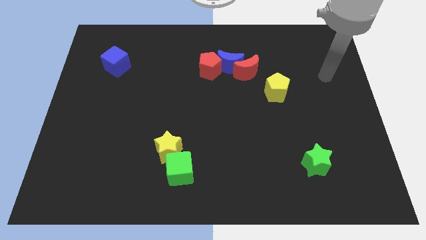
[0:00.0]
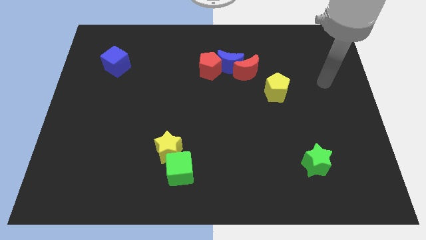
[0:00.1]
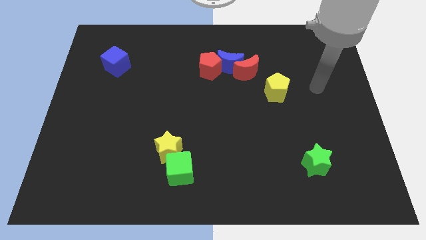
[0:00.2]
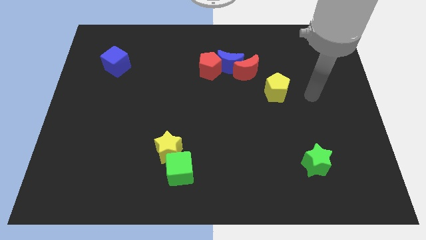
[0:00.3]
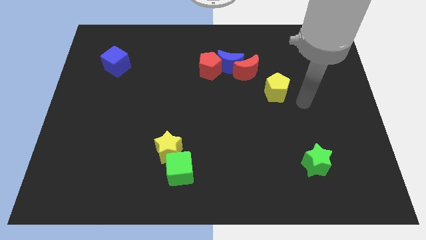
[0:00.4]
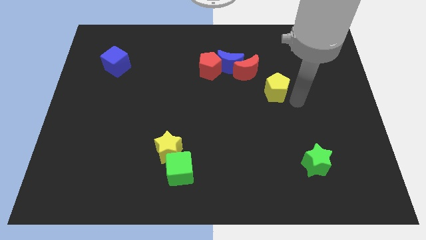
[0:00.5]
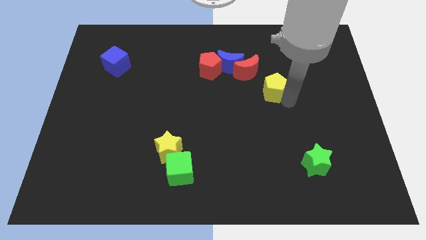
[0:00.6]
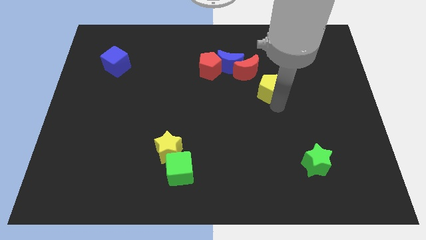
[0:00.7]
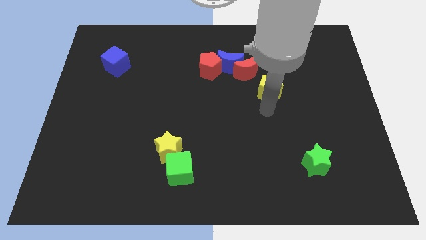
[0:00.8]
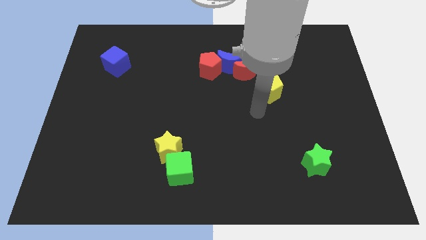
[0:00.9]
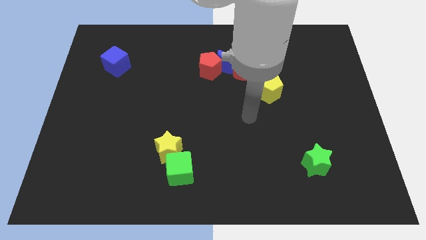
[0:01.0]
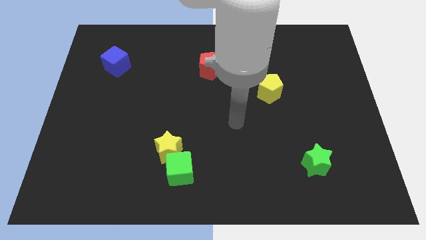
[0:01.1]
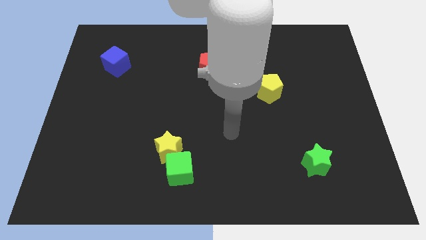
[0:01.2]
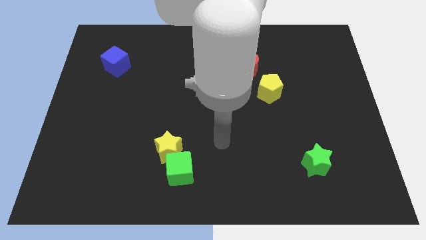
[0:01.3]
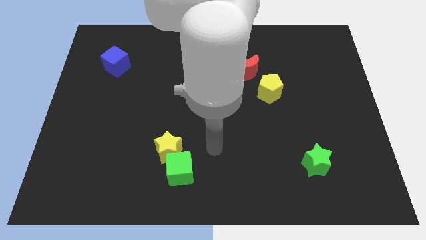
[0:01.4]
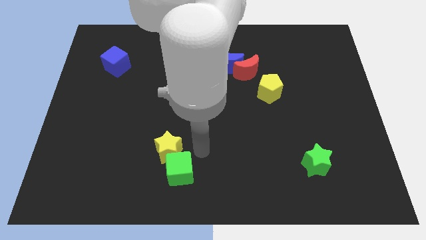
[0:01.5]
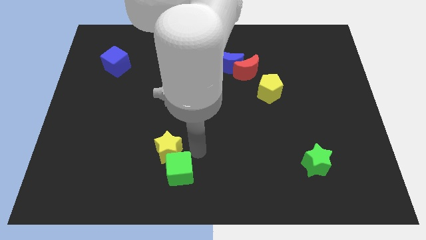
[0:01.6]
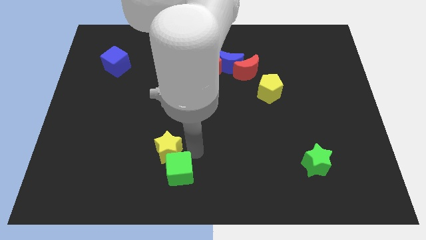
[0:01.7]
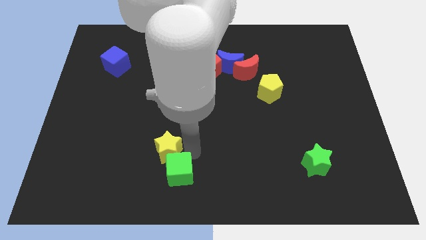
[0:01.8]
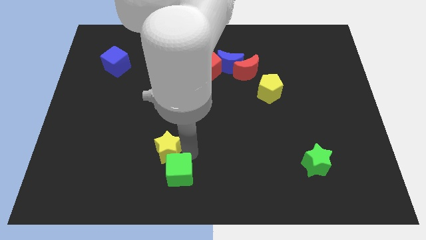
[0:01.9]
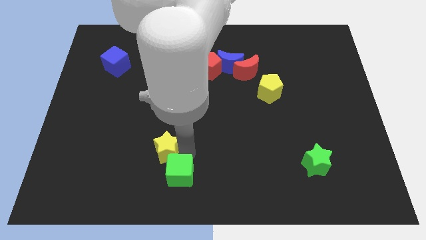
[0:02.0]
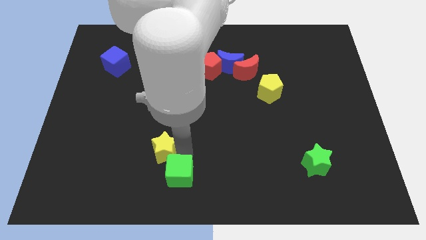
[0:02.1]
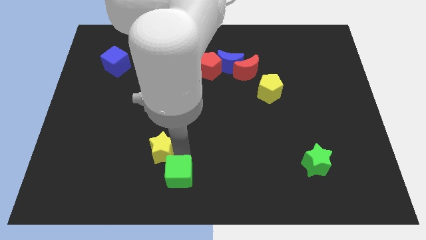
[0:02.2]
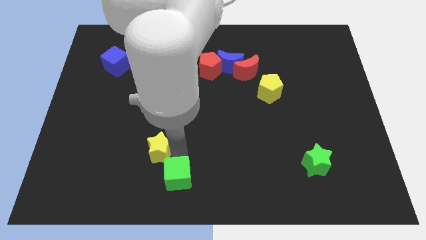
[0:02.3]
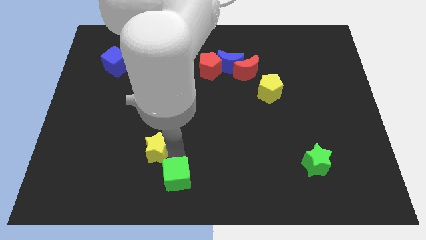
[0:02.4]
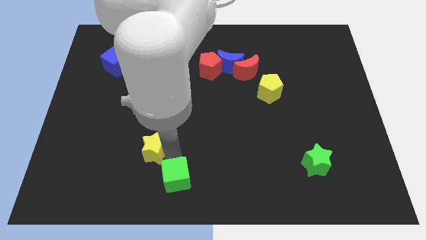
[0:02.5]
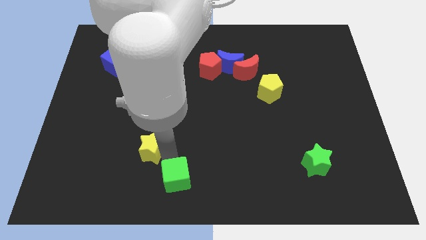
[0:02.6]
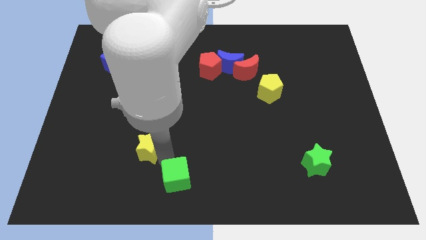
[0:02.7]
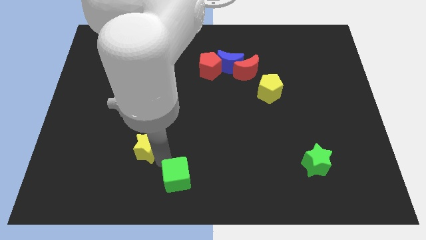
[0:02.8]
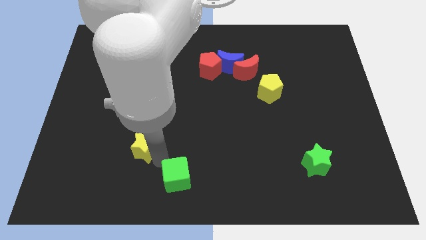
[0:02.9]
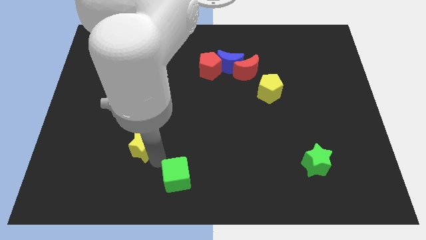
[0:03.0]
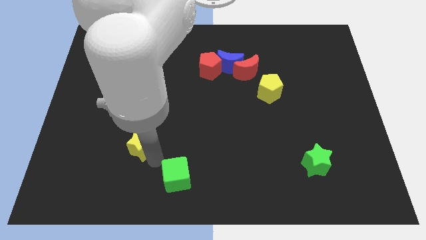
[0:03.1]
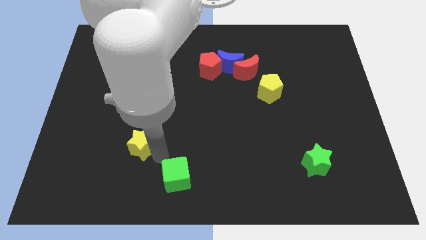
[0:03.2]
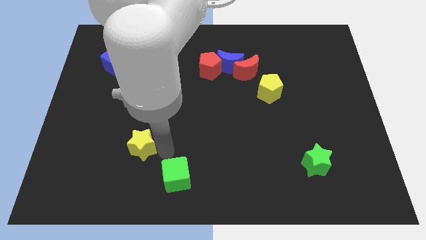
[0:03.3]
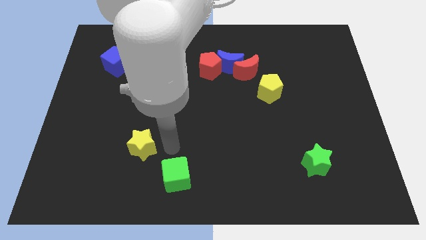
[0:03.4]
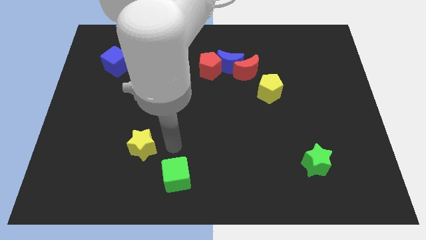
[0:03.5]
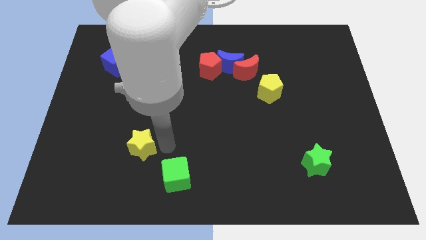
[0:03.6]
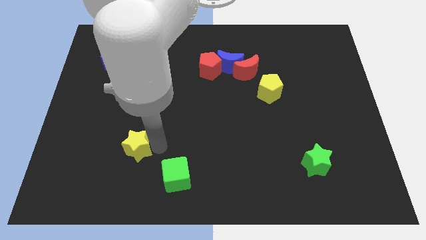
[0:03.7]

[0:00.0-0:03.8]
slightly push the yellow star left

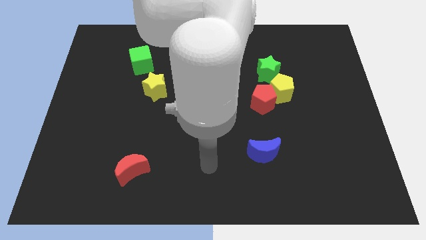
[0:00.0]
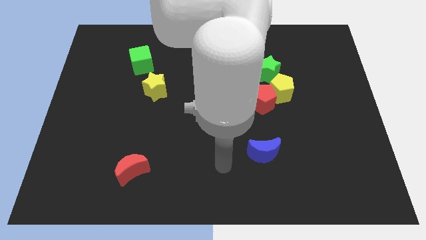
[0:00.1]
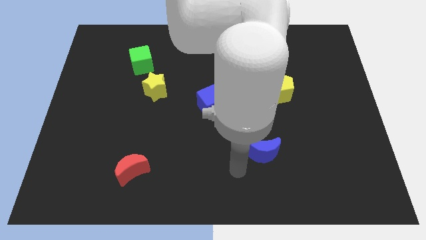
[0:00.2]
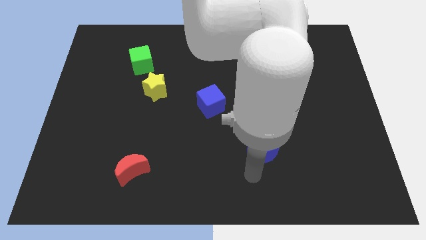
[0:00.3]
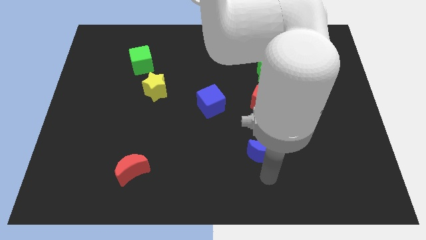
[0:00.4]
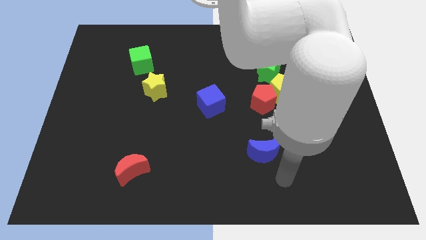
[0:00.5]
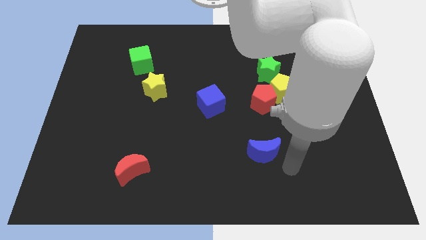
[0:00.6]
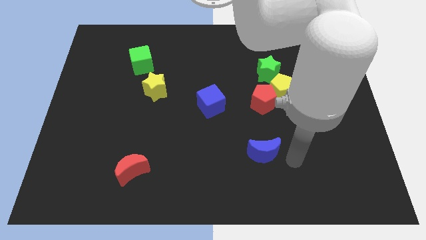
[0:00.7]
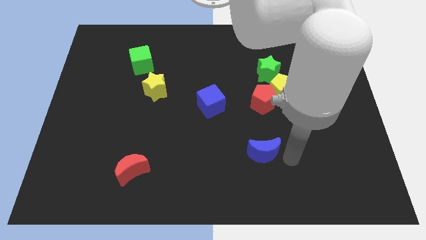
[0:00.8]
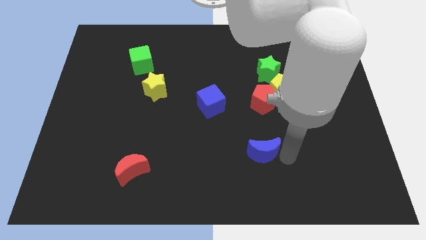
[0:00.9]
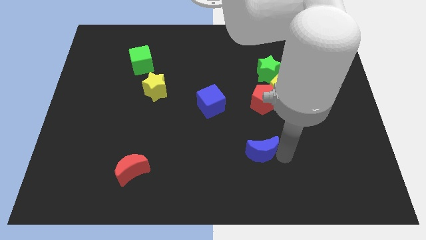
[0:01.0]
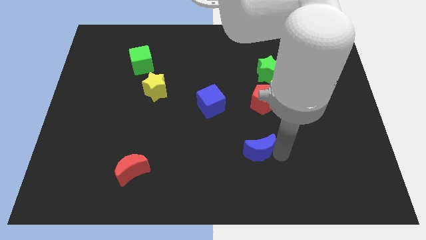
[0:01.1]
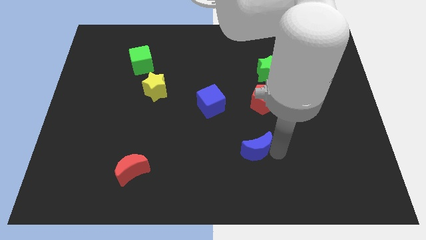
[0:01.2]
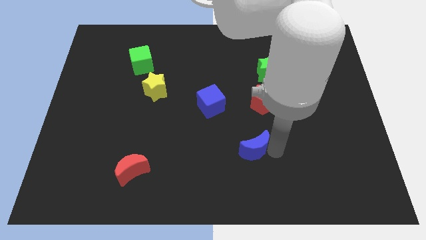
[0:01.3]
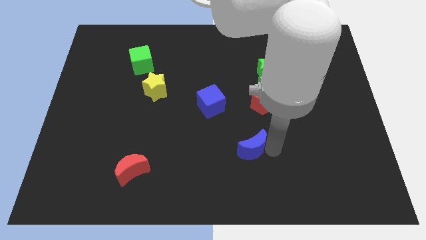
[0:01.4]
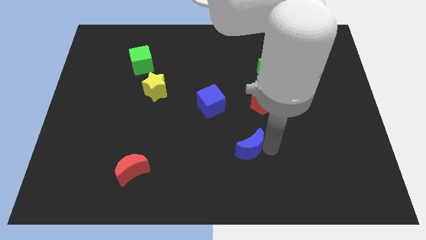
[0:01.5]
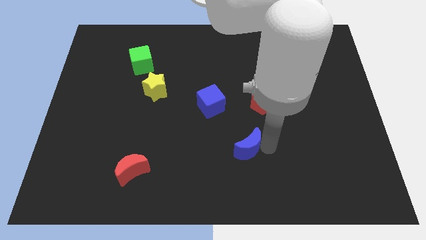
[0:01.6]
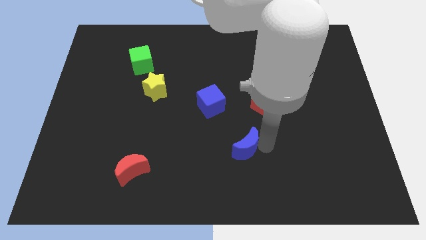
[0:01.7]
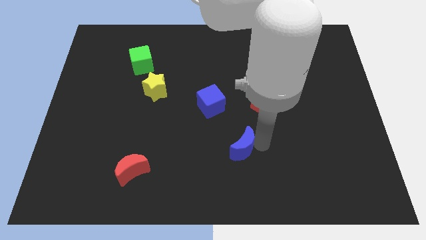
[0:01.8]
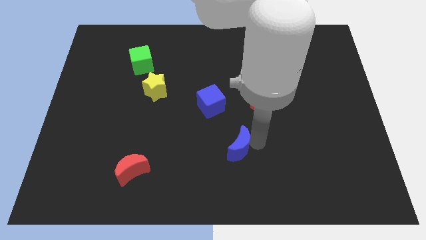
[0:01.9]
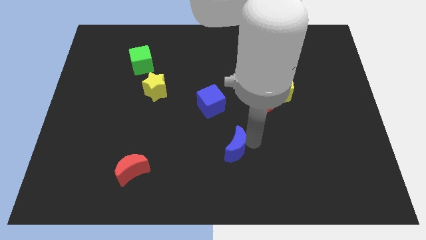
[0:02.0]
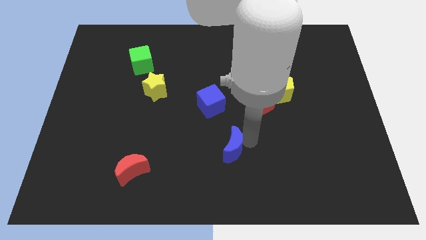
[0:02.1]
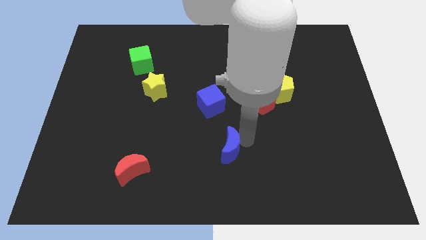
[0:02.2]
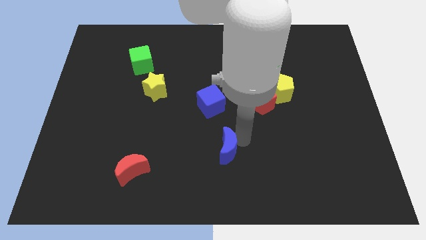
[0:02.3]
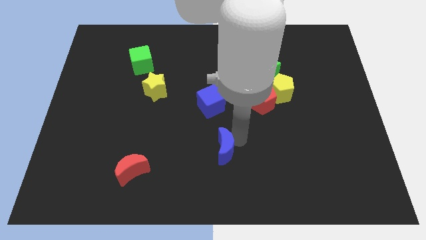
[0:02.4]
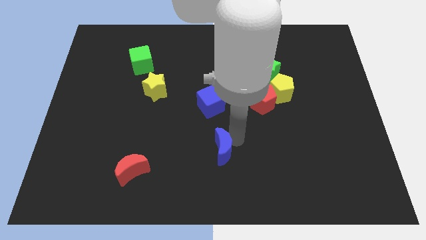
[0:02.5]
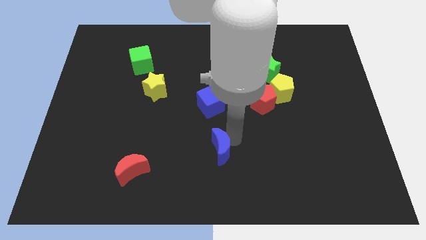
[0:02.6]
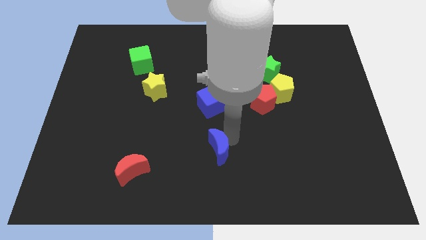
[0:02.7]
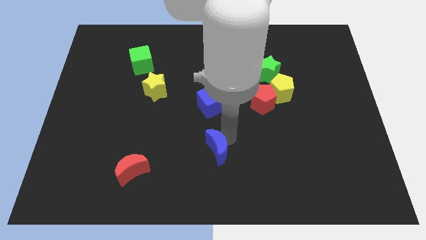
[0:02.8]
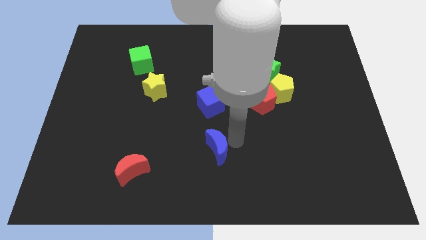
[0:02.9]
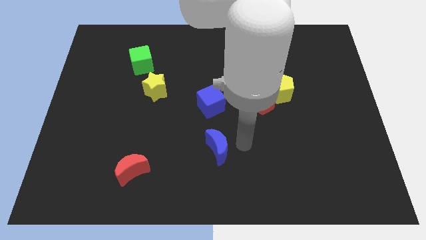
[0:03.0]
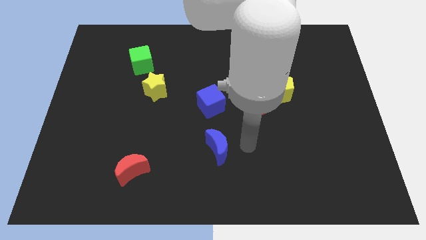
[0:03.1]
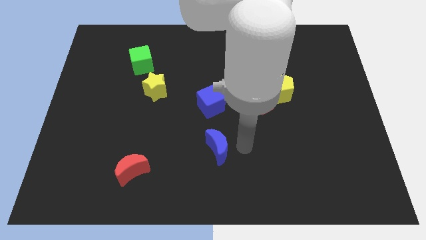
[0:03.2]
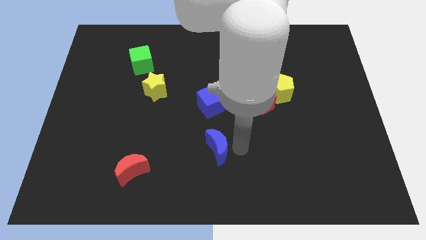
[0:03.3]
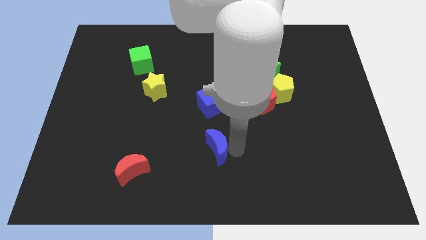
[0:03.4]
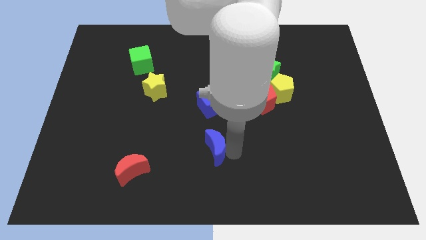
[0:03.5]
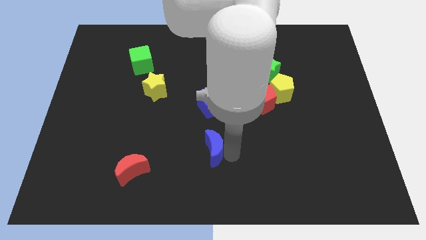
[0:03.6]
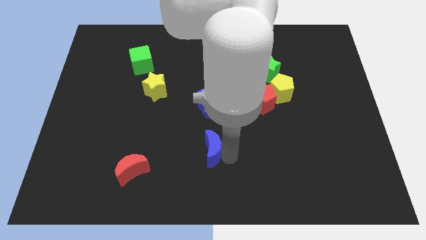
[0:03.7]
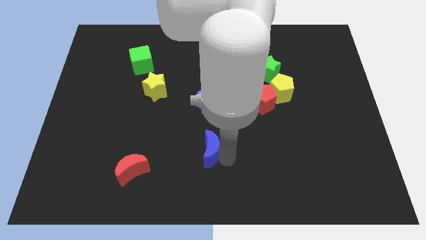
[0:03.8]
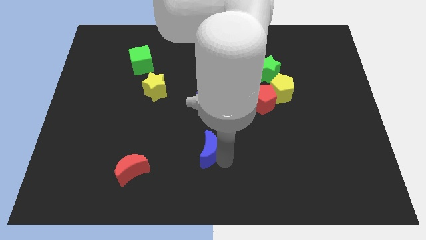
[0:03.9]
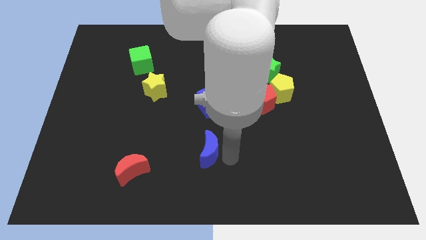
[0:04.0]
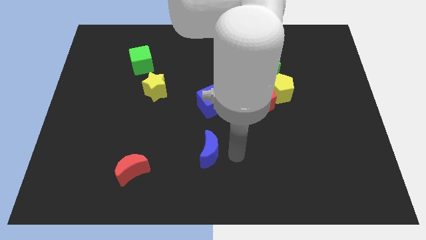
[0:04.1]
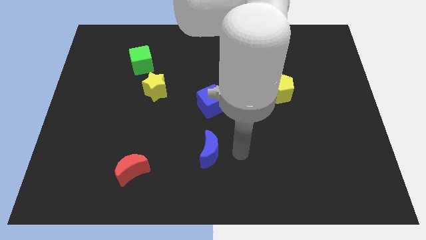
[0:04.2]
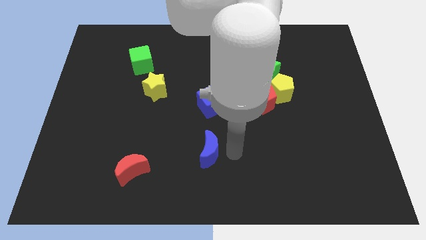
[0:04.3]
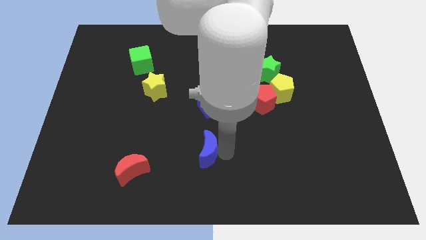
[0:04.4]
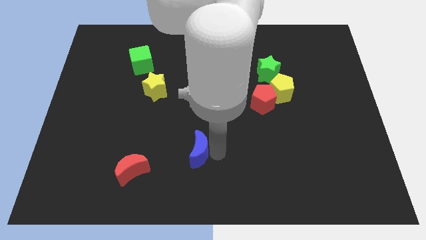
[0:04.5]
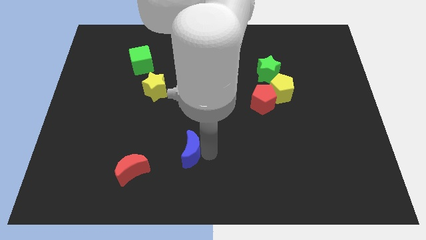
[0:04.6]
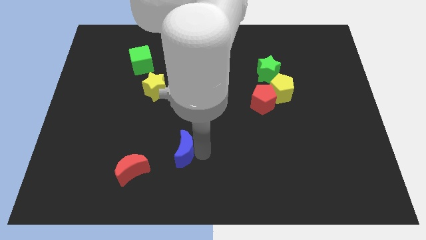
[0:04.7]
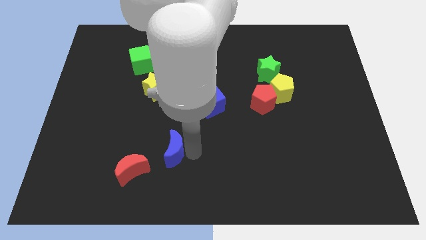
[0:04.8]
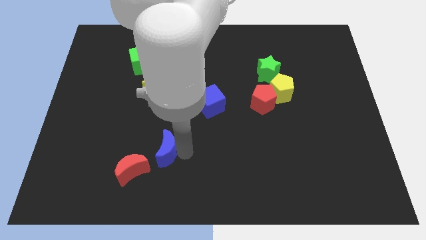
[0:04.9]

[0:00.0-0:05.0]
move the blue moon left
